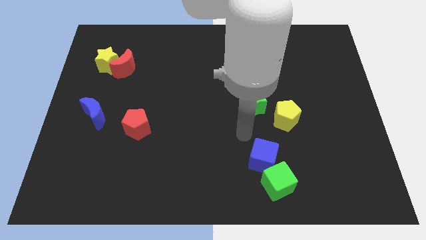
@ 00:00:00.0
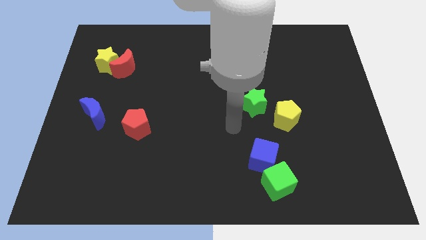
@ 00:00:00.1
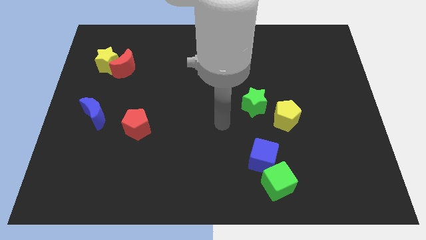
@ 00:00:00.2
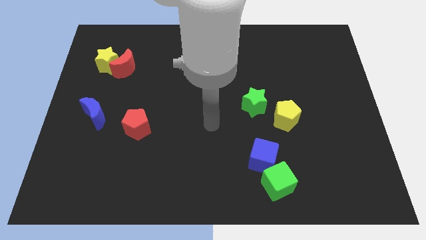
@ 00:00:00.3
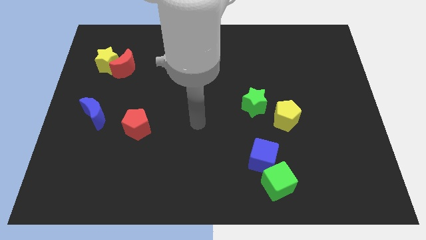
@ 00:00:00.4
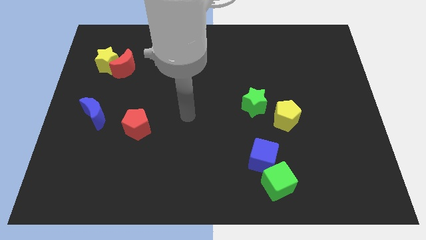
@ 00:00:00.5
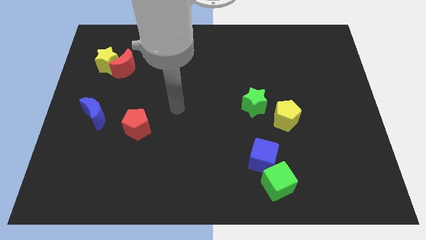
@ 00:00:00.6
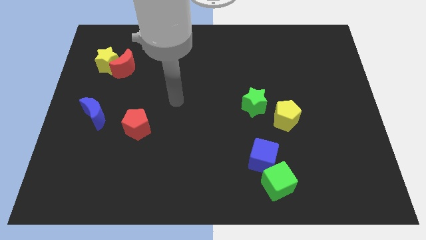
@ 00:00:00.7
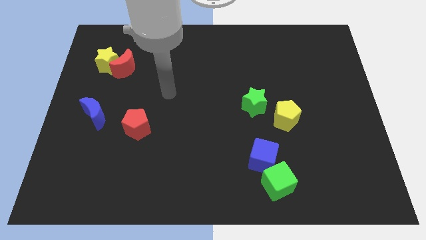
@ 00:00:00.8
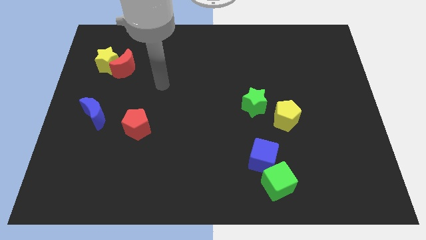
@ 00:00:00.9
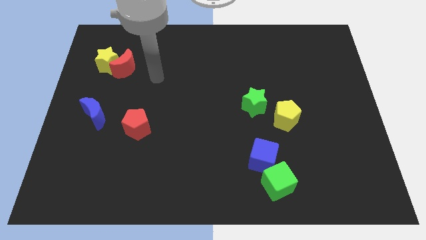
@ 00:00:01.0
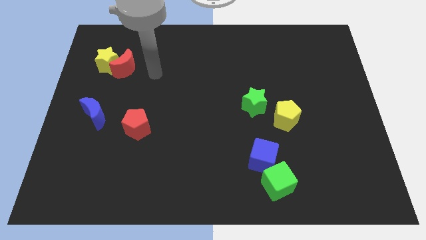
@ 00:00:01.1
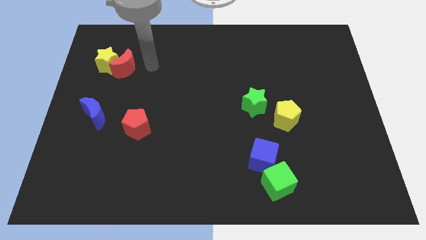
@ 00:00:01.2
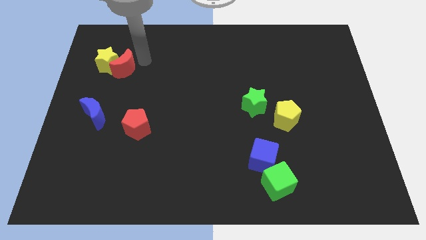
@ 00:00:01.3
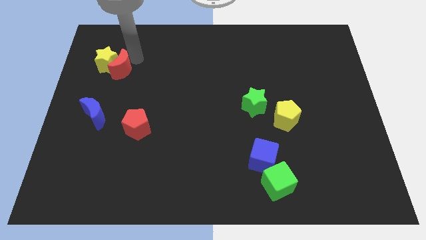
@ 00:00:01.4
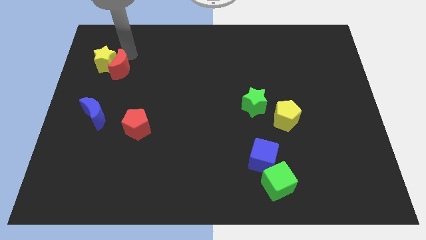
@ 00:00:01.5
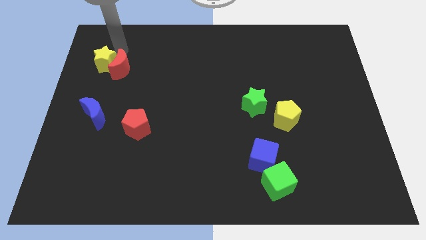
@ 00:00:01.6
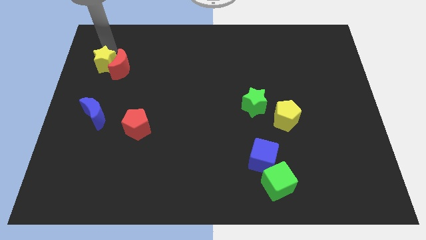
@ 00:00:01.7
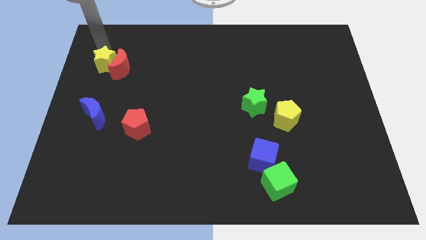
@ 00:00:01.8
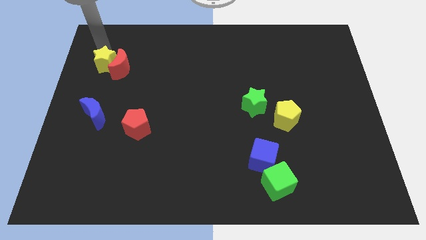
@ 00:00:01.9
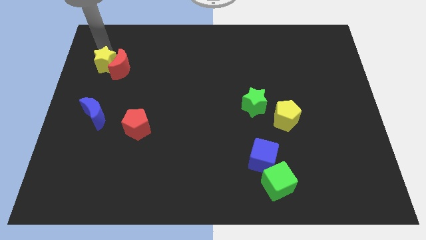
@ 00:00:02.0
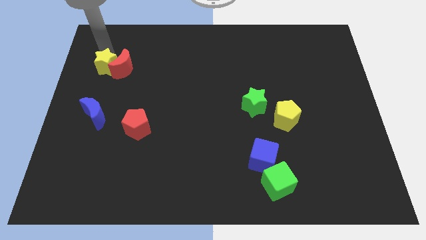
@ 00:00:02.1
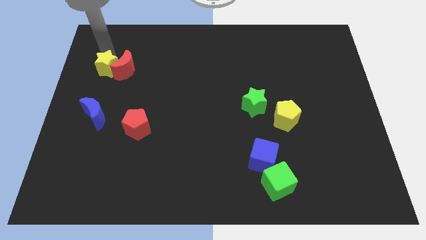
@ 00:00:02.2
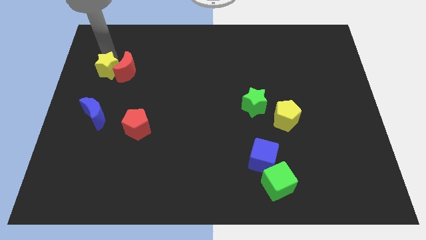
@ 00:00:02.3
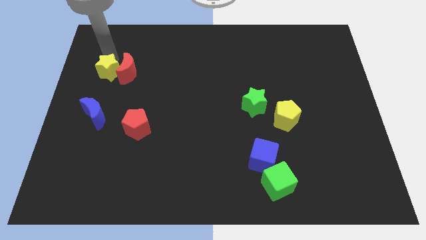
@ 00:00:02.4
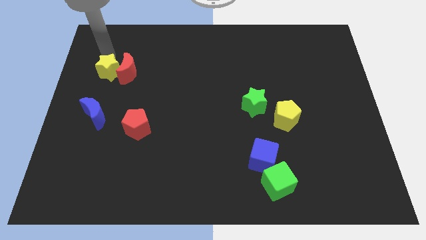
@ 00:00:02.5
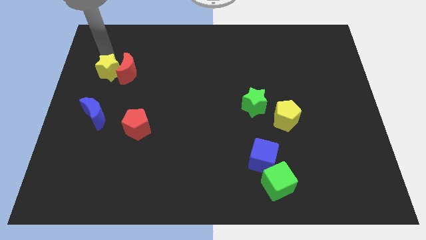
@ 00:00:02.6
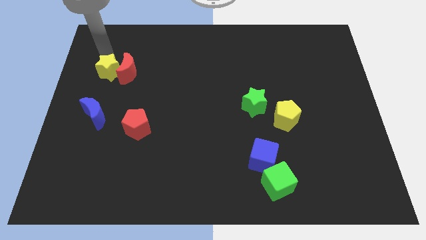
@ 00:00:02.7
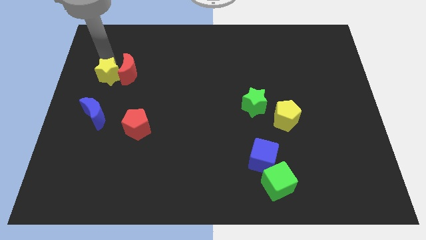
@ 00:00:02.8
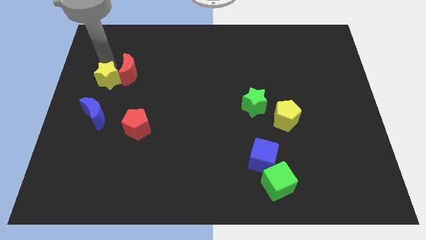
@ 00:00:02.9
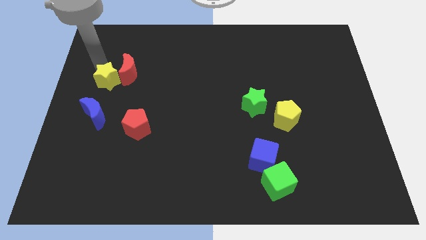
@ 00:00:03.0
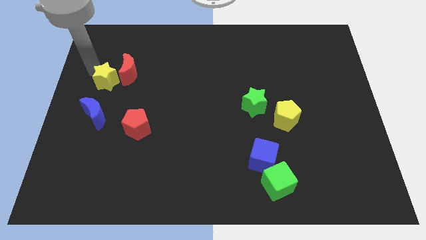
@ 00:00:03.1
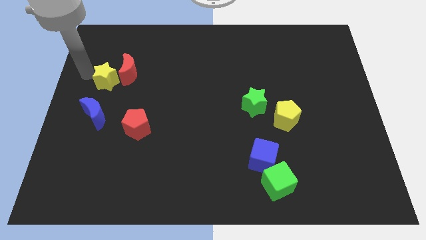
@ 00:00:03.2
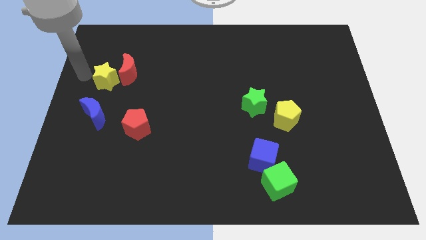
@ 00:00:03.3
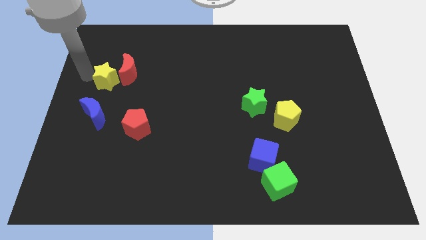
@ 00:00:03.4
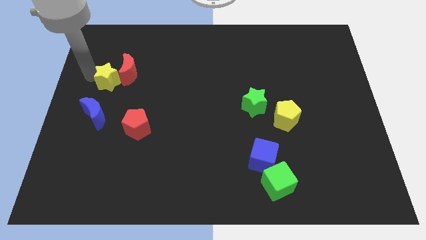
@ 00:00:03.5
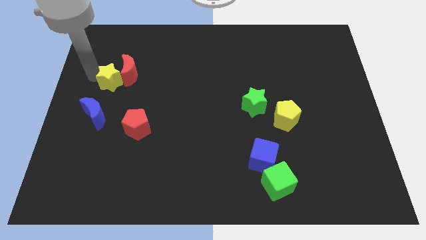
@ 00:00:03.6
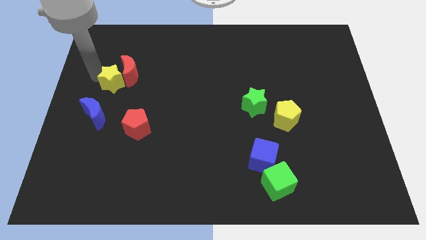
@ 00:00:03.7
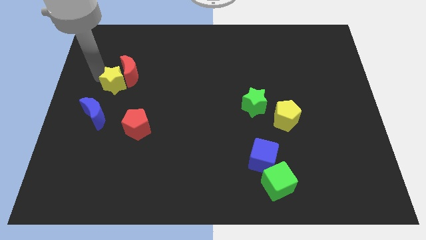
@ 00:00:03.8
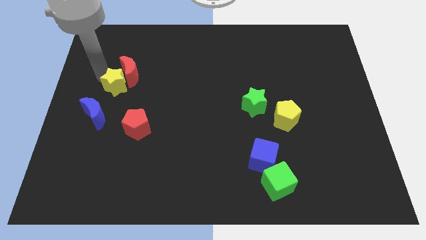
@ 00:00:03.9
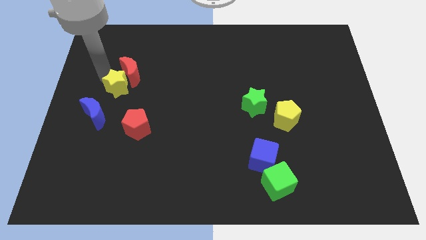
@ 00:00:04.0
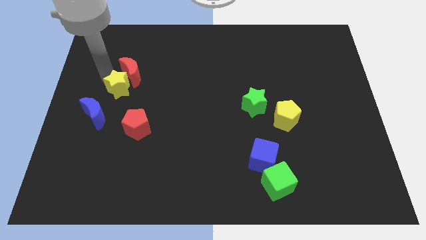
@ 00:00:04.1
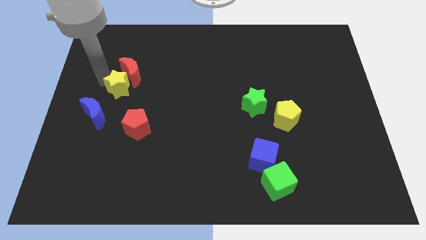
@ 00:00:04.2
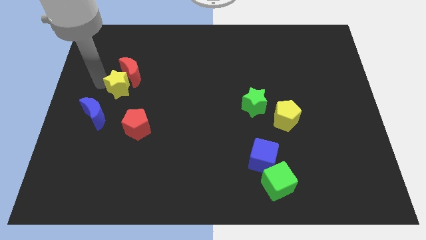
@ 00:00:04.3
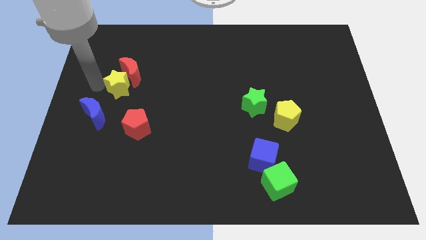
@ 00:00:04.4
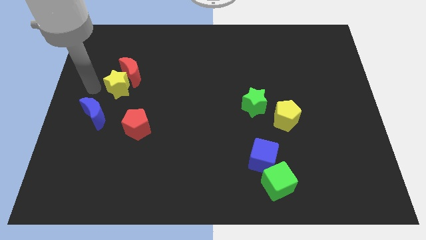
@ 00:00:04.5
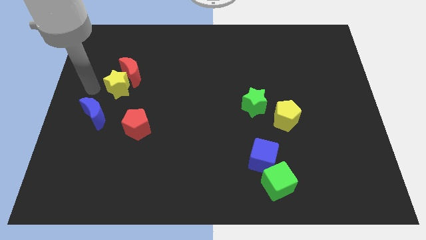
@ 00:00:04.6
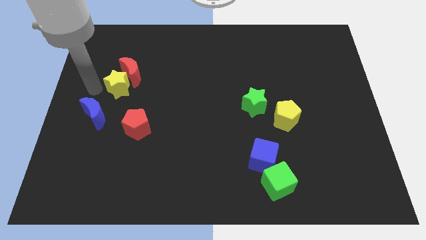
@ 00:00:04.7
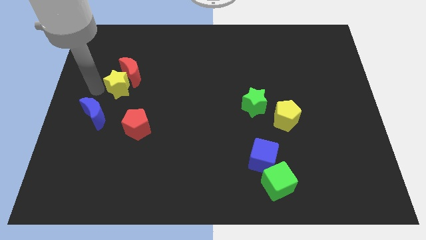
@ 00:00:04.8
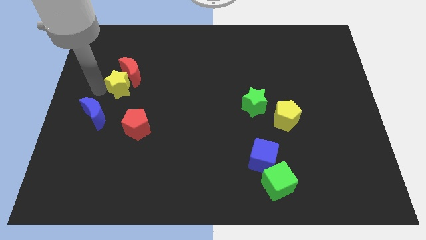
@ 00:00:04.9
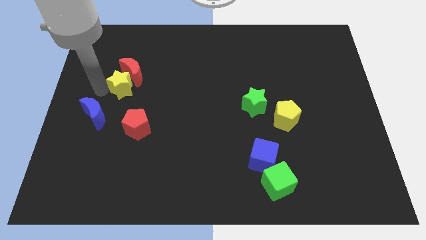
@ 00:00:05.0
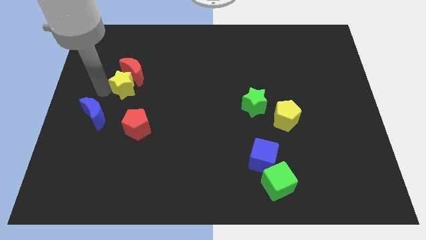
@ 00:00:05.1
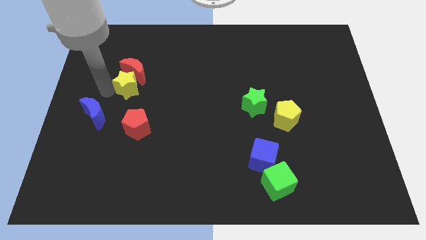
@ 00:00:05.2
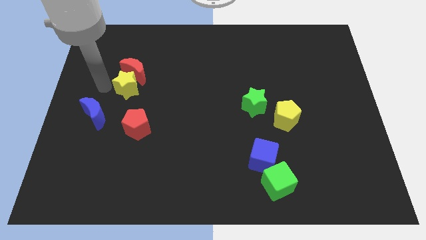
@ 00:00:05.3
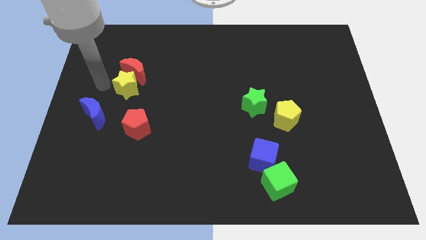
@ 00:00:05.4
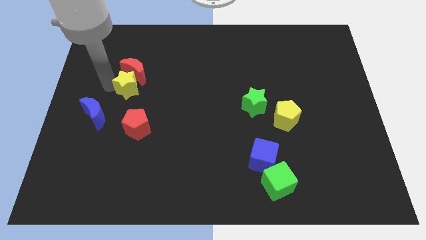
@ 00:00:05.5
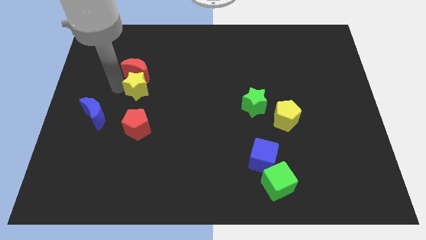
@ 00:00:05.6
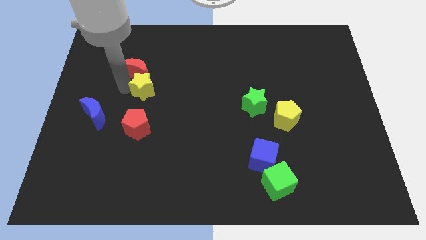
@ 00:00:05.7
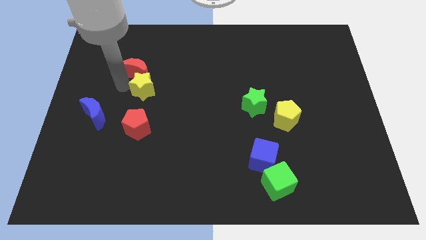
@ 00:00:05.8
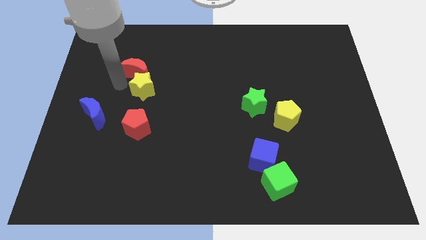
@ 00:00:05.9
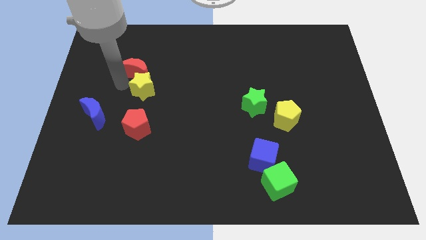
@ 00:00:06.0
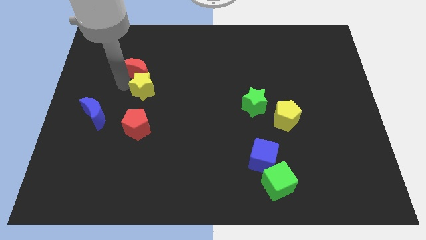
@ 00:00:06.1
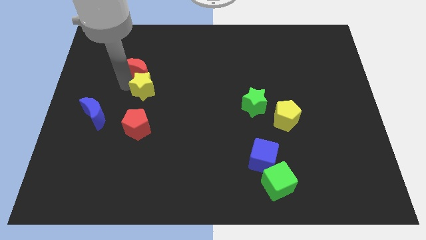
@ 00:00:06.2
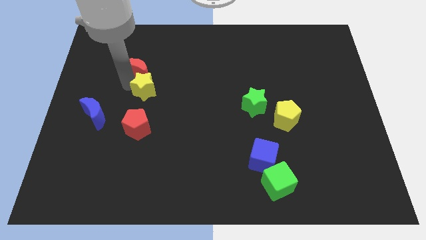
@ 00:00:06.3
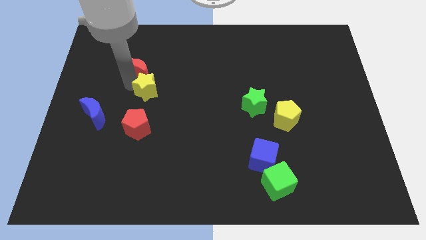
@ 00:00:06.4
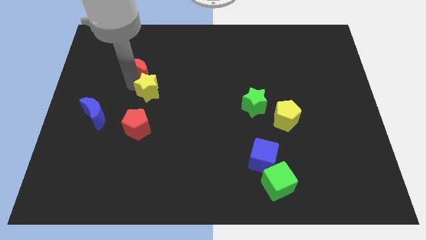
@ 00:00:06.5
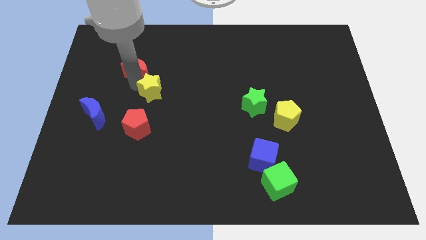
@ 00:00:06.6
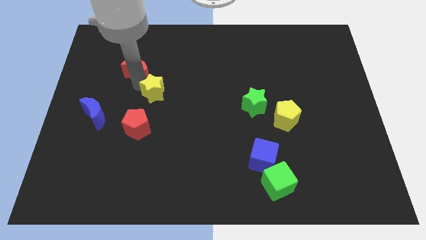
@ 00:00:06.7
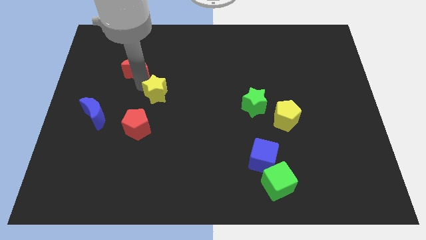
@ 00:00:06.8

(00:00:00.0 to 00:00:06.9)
push the yellow star to the top right side of the red pentagon
